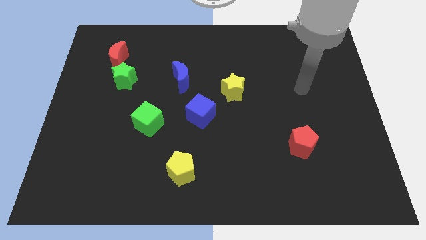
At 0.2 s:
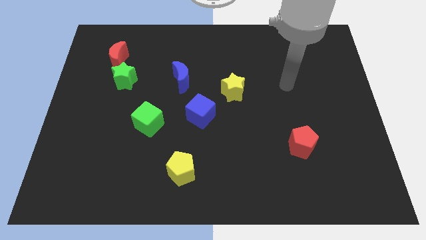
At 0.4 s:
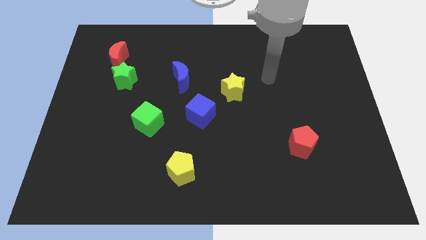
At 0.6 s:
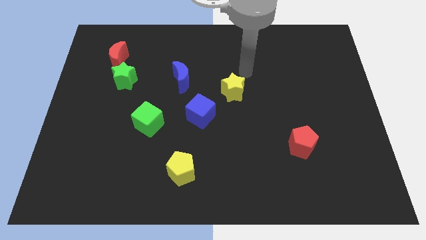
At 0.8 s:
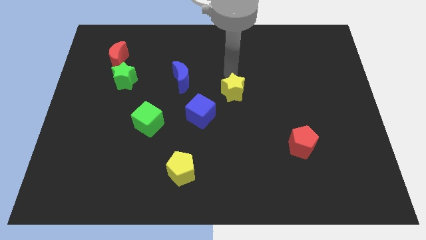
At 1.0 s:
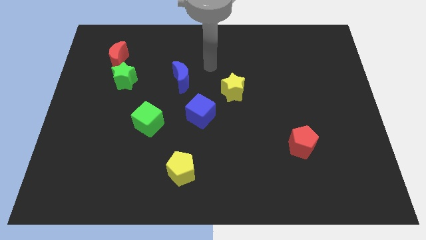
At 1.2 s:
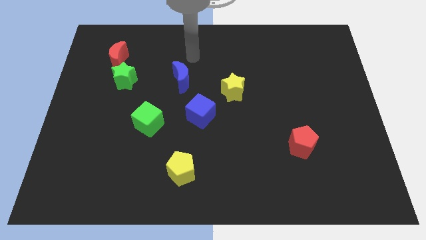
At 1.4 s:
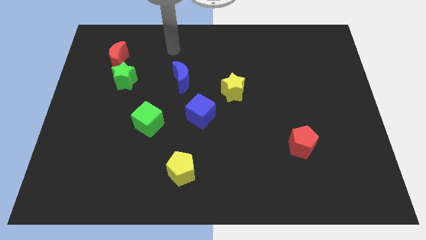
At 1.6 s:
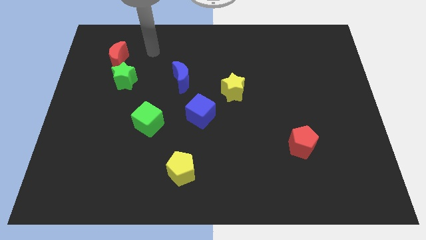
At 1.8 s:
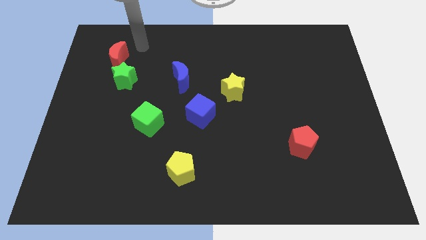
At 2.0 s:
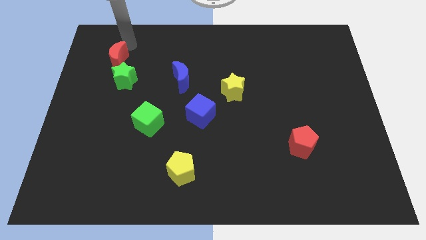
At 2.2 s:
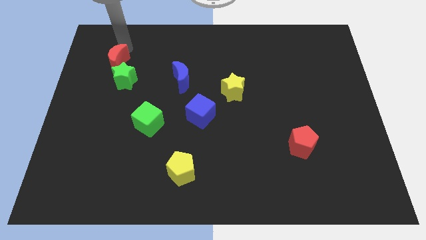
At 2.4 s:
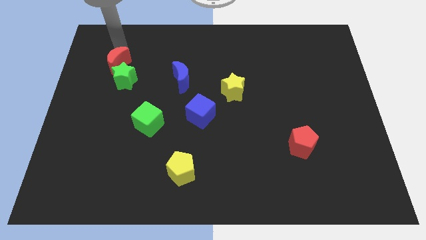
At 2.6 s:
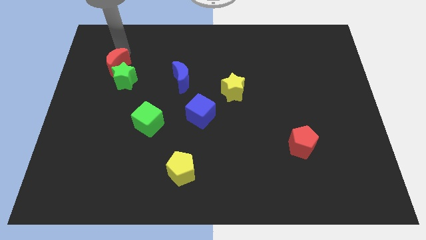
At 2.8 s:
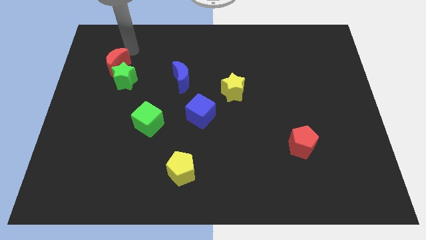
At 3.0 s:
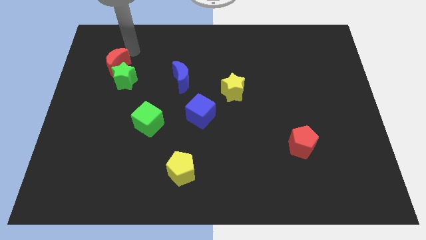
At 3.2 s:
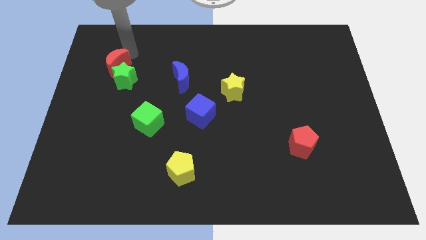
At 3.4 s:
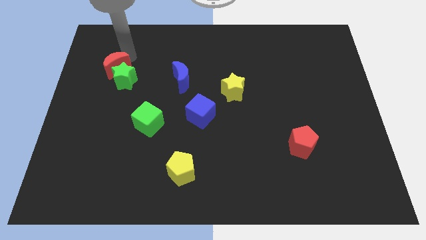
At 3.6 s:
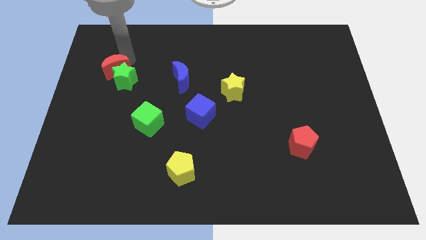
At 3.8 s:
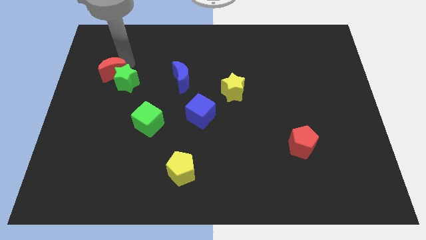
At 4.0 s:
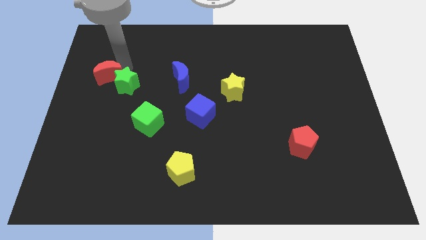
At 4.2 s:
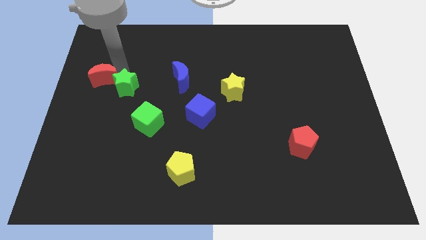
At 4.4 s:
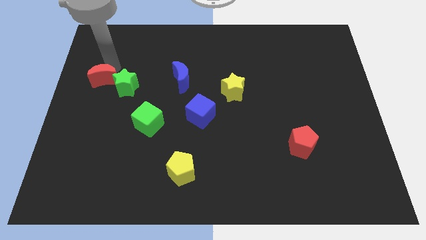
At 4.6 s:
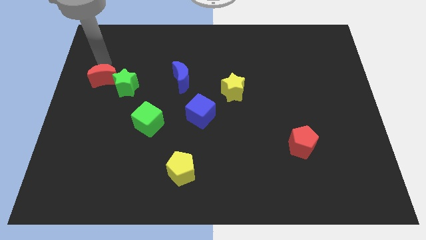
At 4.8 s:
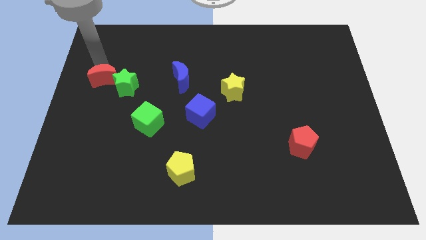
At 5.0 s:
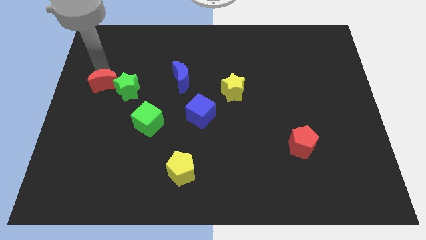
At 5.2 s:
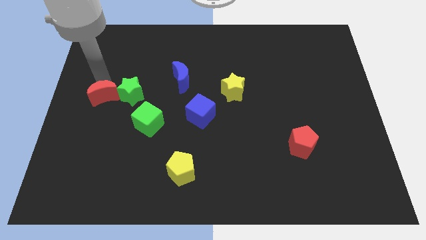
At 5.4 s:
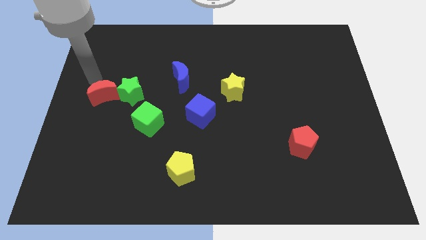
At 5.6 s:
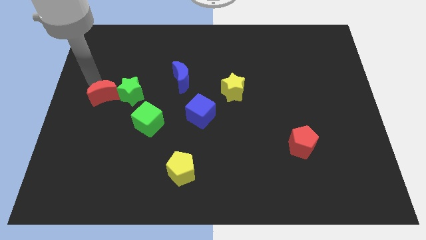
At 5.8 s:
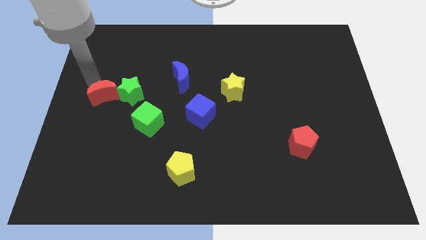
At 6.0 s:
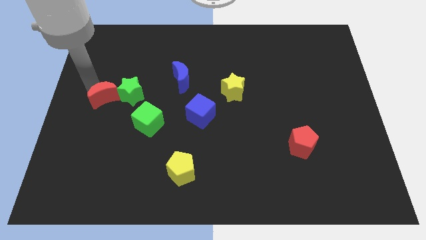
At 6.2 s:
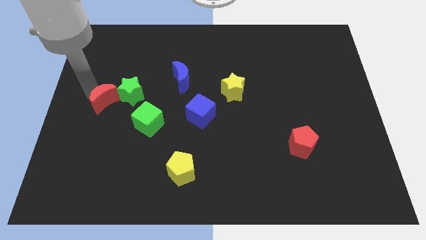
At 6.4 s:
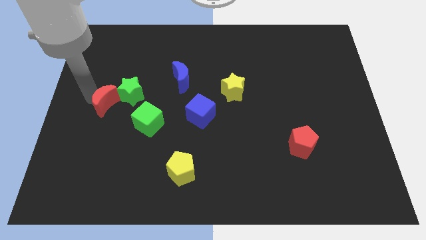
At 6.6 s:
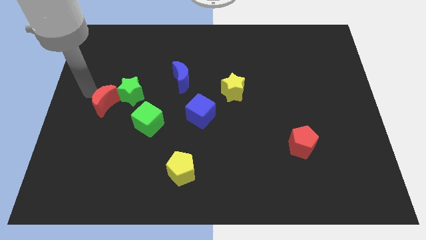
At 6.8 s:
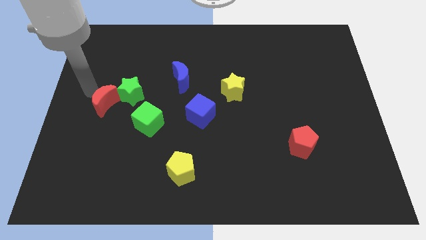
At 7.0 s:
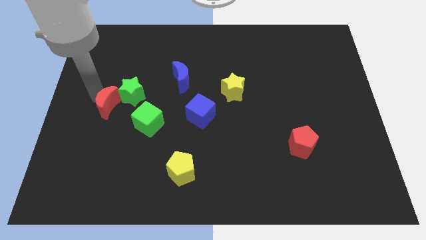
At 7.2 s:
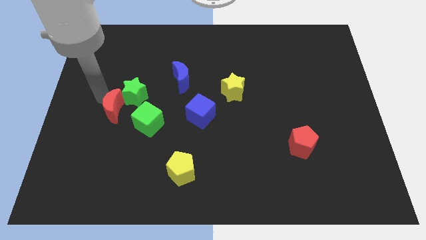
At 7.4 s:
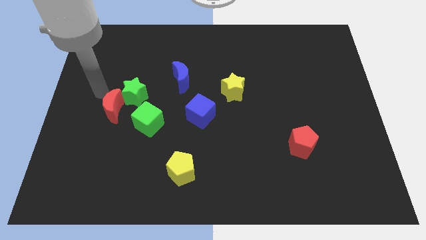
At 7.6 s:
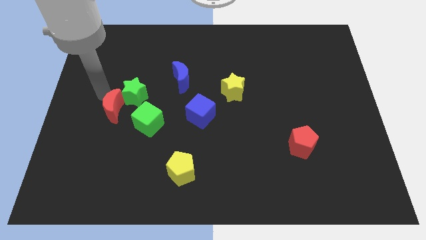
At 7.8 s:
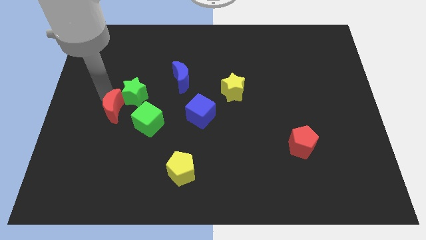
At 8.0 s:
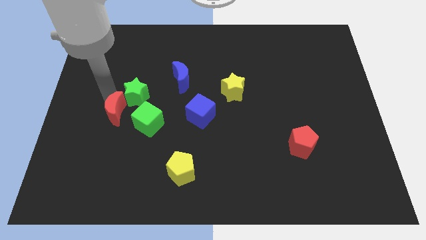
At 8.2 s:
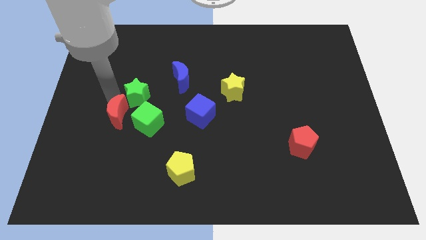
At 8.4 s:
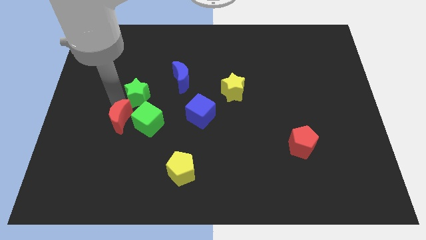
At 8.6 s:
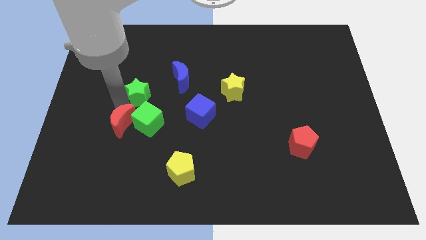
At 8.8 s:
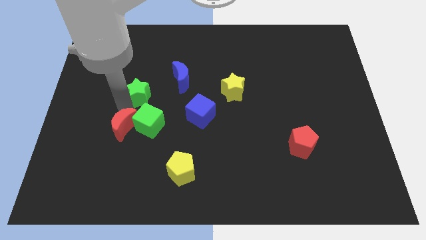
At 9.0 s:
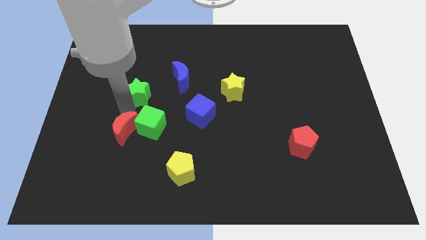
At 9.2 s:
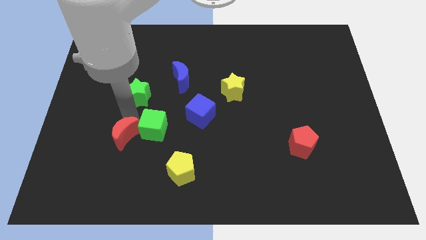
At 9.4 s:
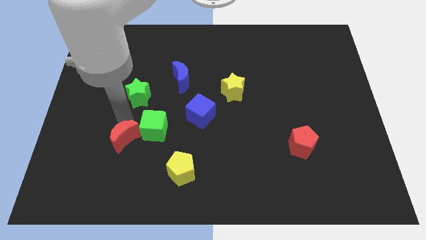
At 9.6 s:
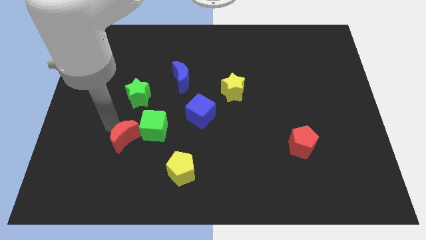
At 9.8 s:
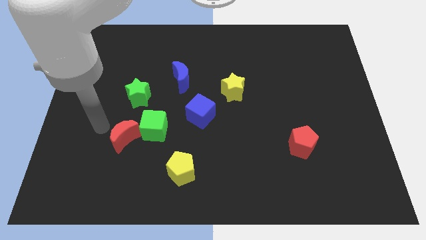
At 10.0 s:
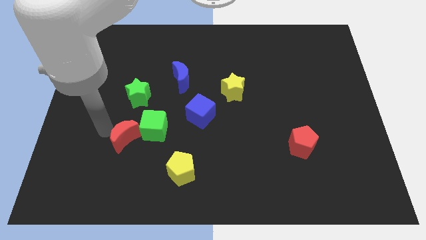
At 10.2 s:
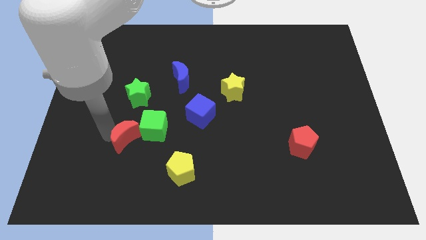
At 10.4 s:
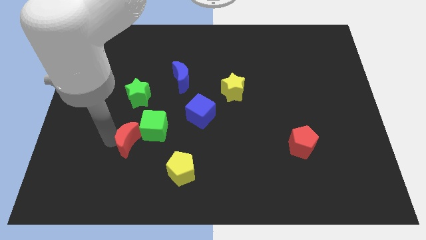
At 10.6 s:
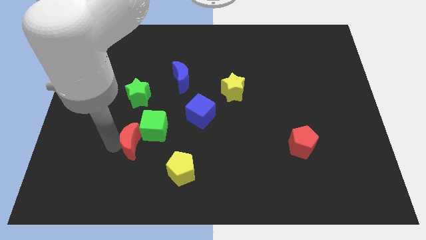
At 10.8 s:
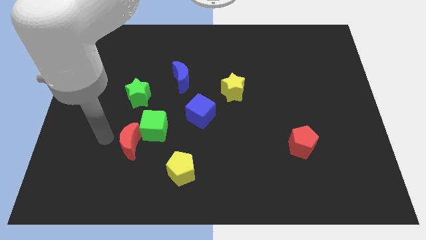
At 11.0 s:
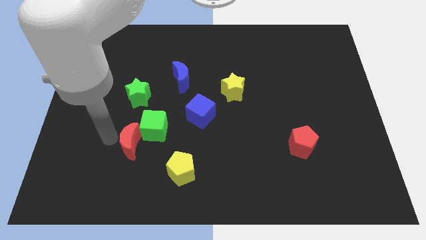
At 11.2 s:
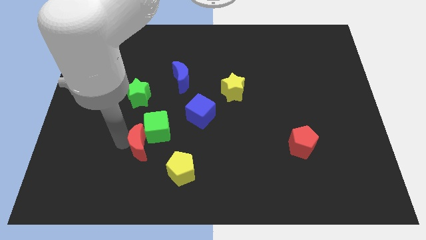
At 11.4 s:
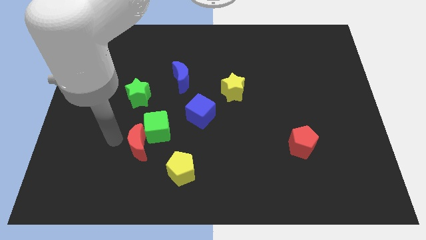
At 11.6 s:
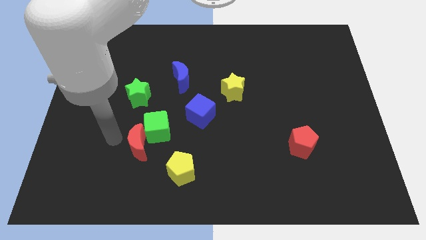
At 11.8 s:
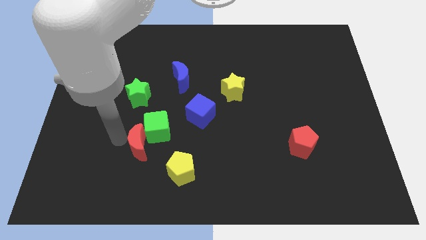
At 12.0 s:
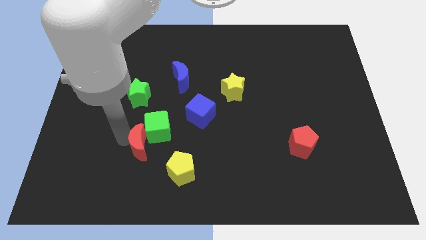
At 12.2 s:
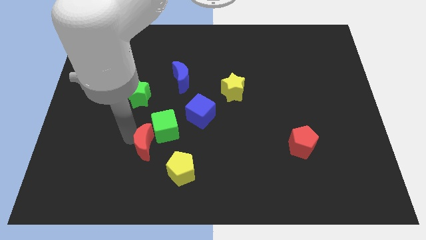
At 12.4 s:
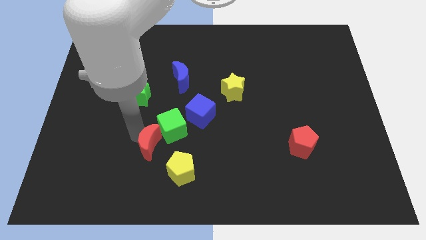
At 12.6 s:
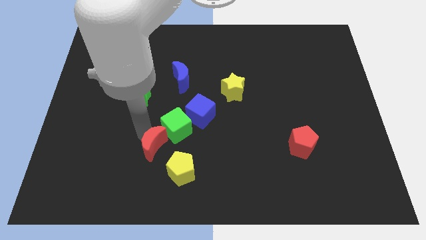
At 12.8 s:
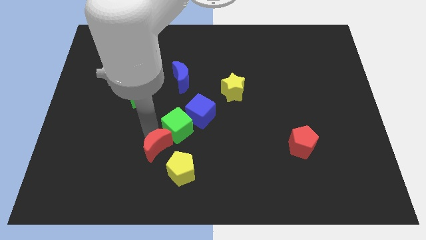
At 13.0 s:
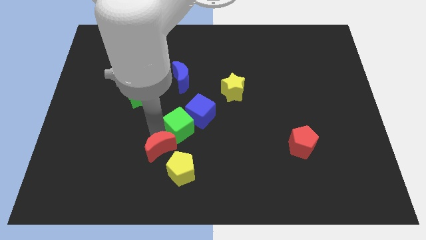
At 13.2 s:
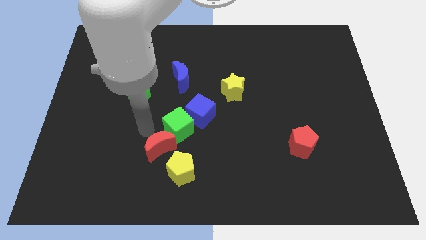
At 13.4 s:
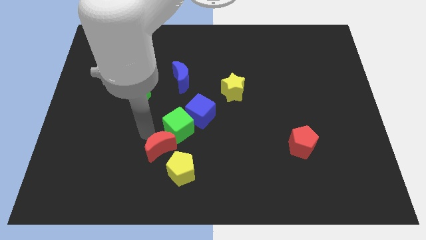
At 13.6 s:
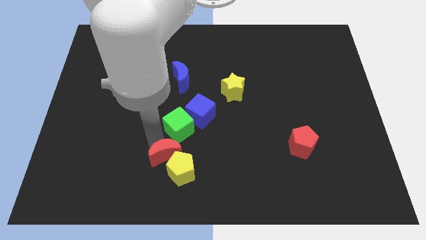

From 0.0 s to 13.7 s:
put the red moon next to the yellow pentagon

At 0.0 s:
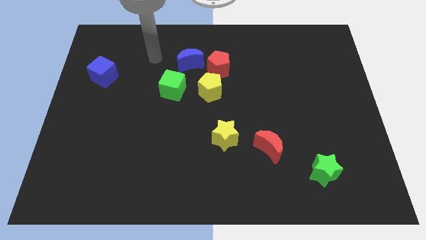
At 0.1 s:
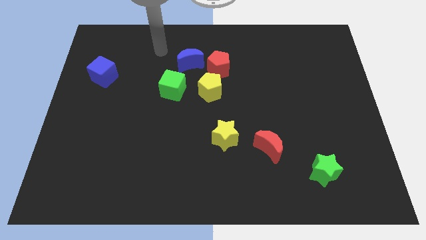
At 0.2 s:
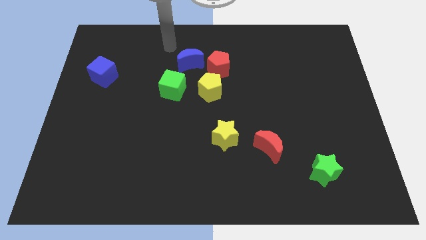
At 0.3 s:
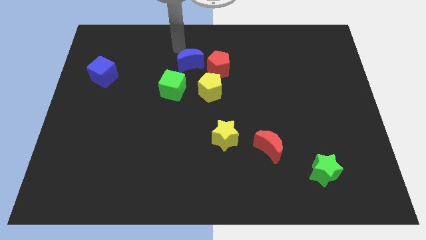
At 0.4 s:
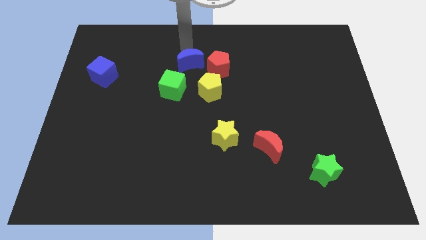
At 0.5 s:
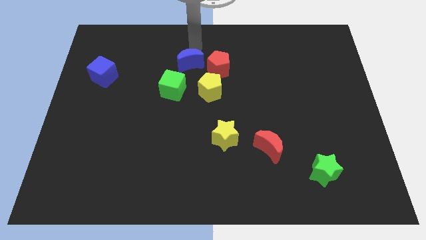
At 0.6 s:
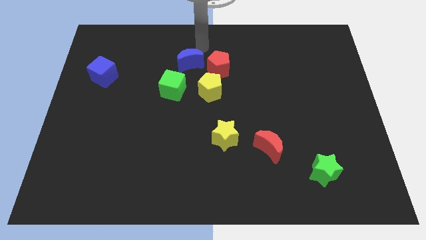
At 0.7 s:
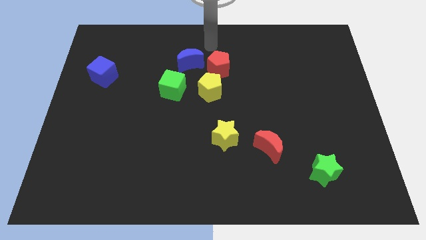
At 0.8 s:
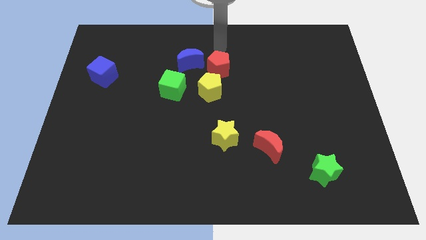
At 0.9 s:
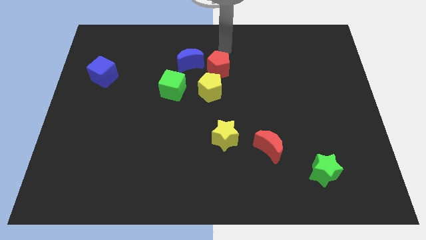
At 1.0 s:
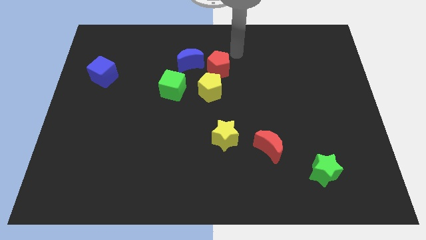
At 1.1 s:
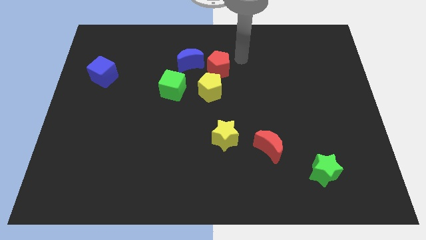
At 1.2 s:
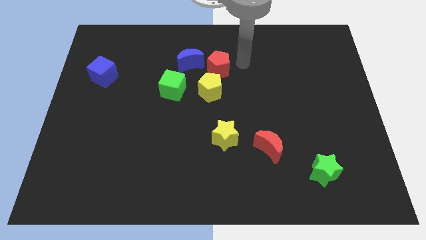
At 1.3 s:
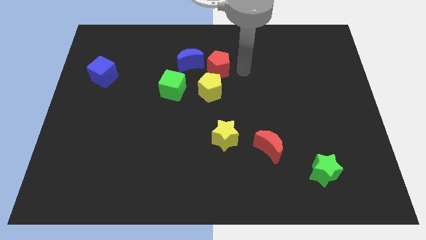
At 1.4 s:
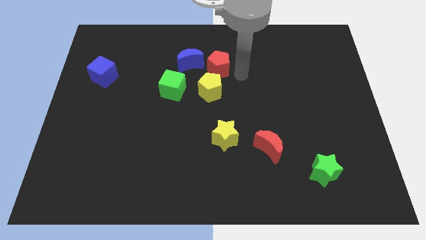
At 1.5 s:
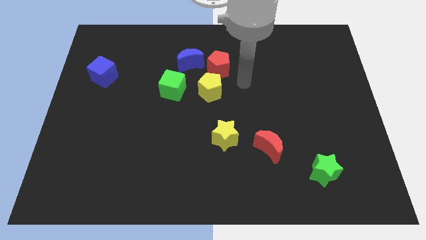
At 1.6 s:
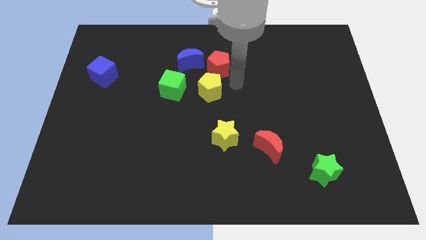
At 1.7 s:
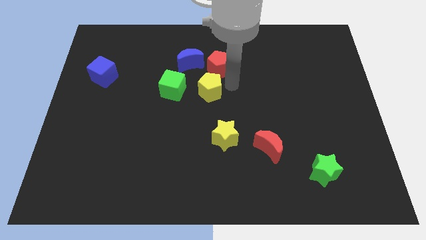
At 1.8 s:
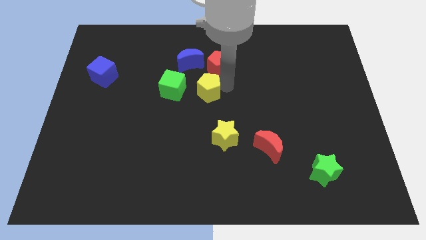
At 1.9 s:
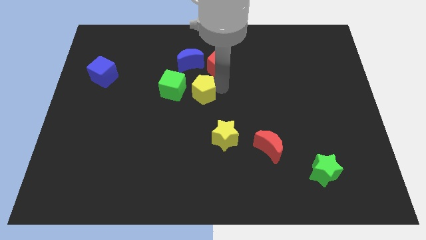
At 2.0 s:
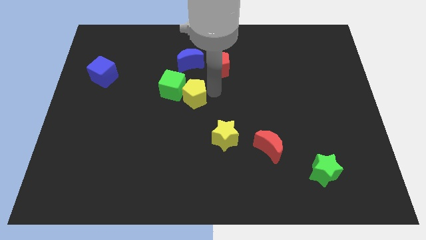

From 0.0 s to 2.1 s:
slide the yellow pentagon towards the green cube
